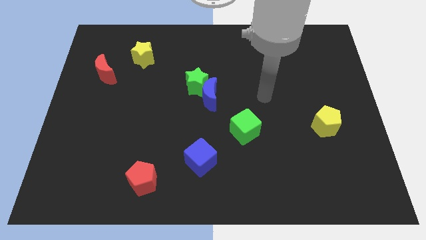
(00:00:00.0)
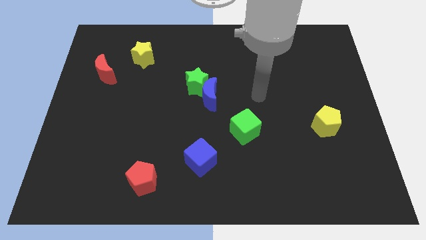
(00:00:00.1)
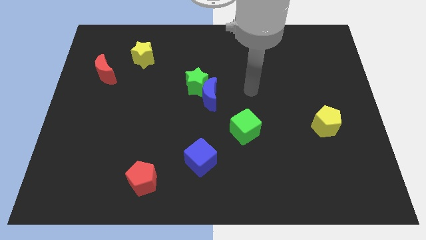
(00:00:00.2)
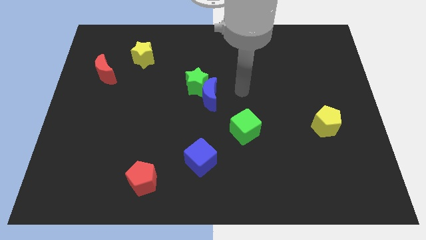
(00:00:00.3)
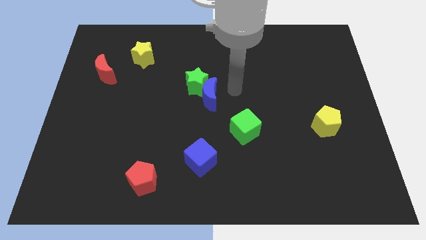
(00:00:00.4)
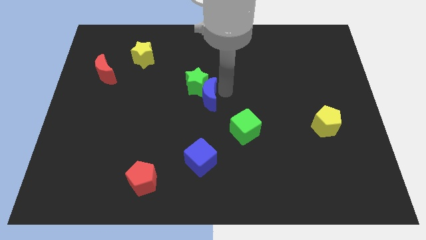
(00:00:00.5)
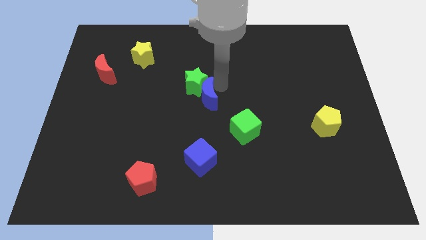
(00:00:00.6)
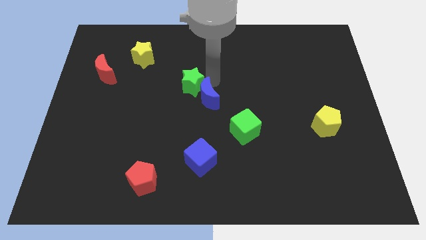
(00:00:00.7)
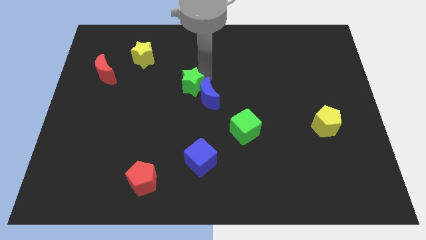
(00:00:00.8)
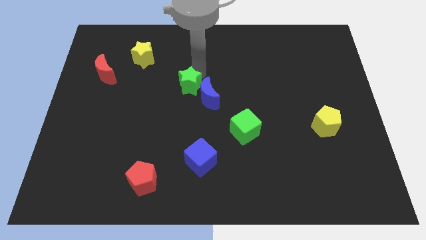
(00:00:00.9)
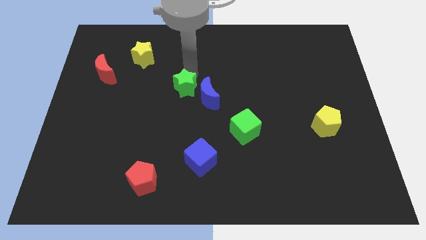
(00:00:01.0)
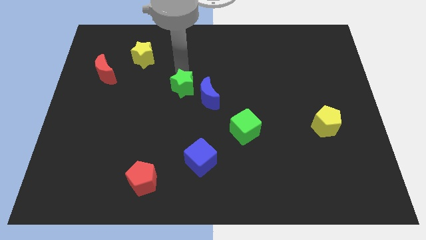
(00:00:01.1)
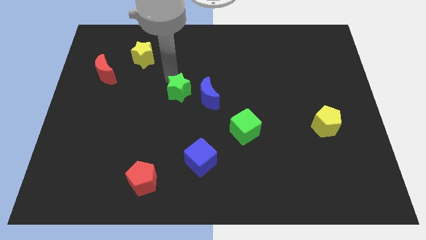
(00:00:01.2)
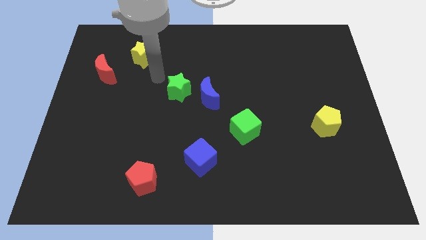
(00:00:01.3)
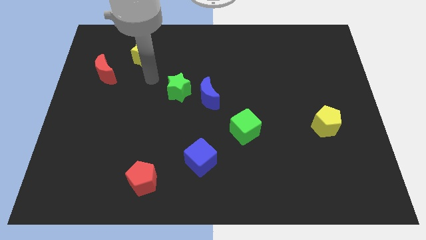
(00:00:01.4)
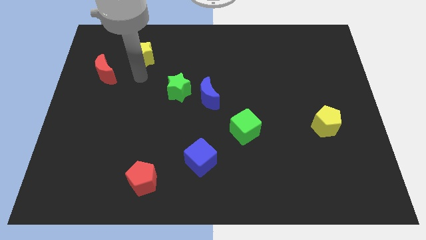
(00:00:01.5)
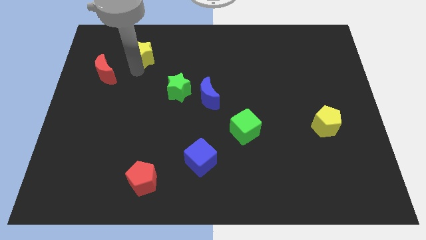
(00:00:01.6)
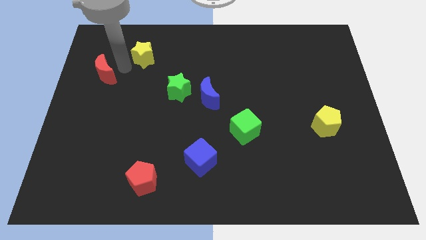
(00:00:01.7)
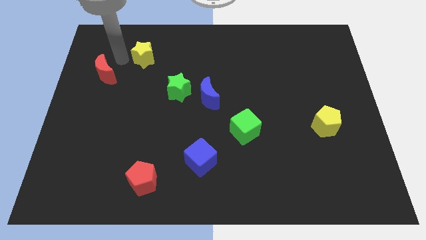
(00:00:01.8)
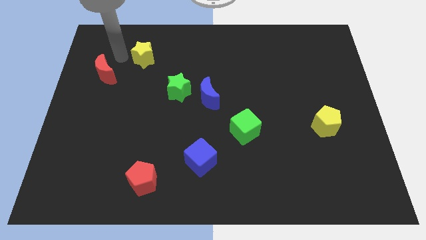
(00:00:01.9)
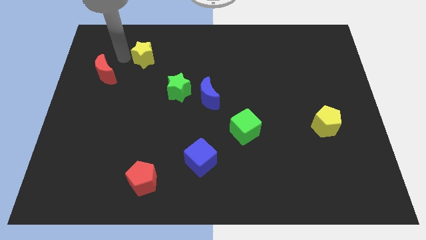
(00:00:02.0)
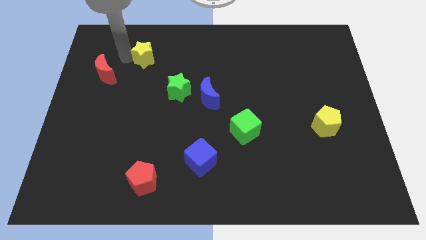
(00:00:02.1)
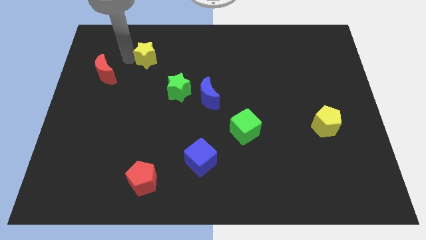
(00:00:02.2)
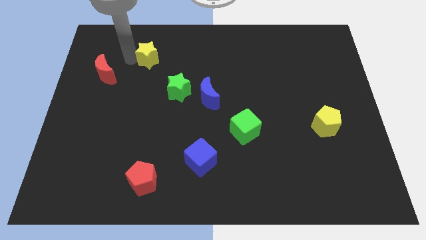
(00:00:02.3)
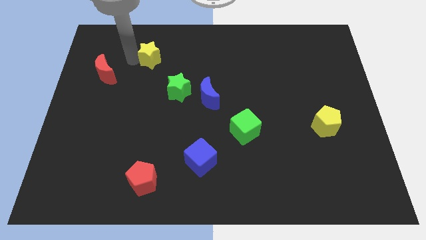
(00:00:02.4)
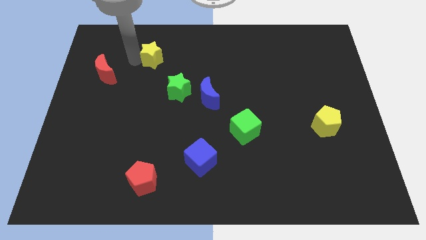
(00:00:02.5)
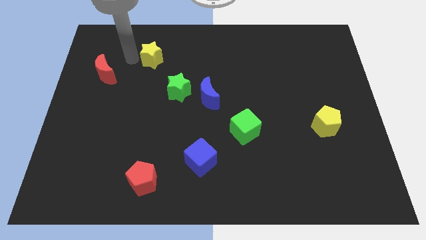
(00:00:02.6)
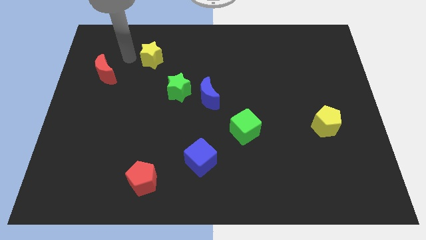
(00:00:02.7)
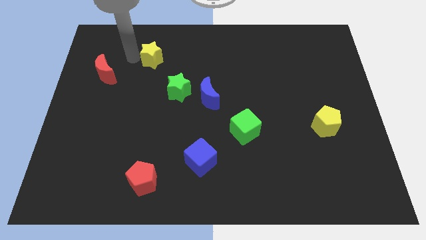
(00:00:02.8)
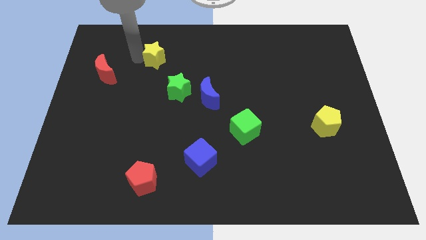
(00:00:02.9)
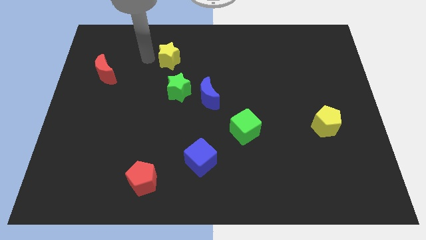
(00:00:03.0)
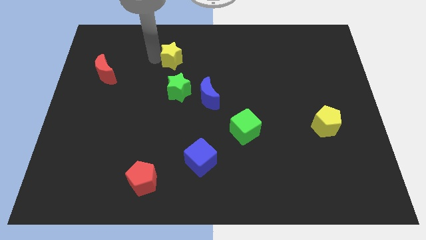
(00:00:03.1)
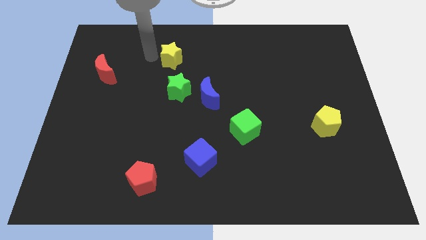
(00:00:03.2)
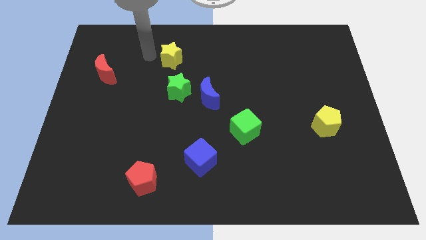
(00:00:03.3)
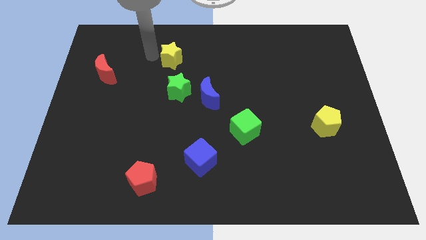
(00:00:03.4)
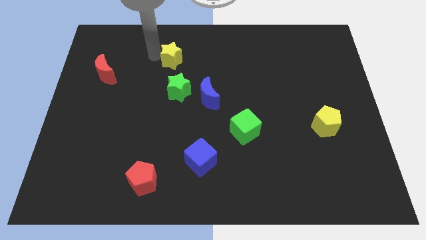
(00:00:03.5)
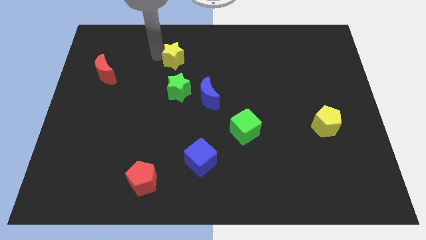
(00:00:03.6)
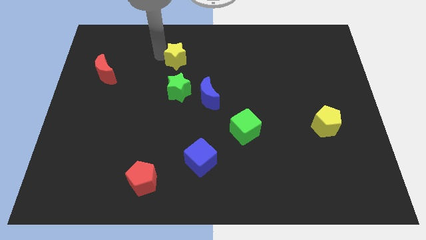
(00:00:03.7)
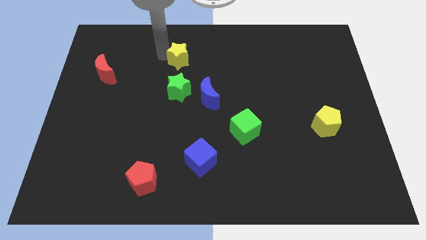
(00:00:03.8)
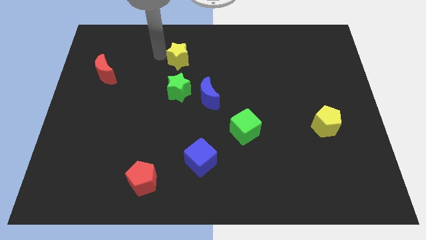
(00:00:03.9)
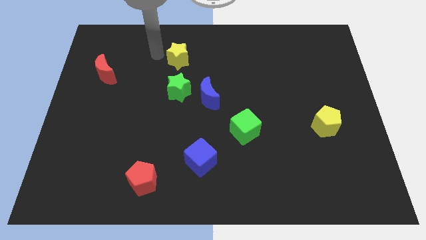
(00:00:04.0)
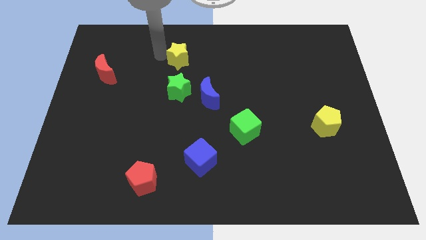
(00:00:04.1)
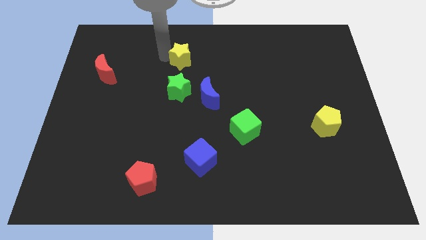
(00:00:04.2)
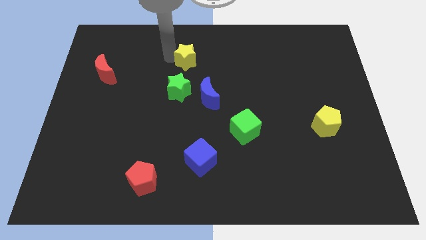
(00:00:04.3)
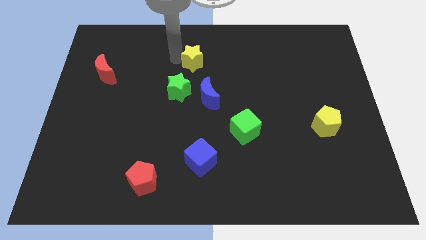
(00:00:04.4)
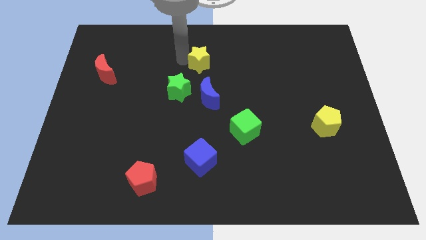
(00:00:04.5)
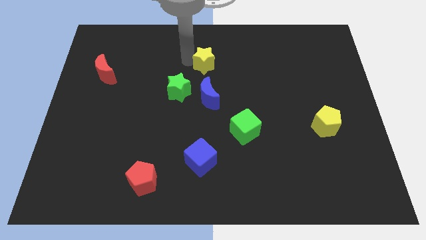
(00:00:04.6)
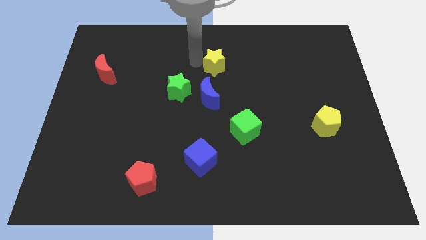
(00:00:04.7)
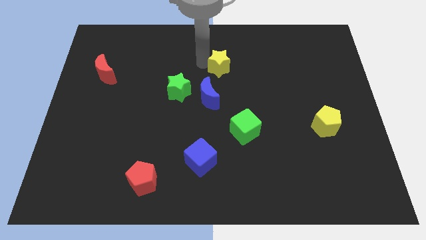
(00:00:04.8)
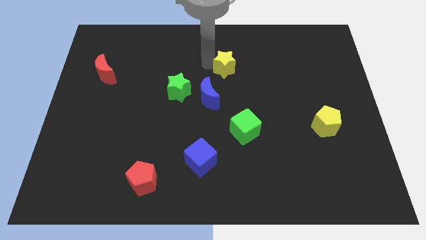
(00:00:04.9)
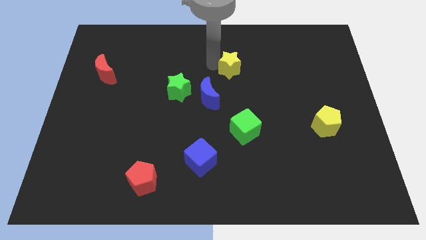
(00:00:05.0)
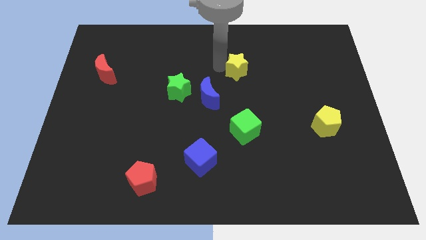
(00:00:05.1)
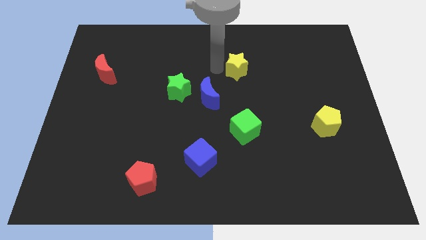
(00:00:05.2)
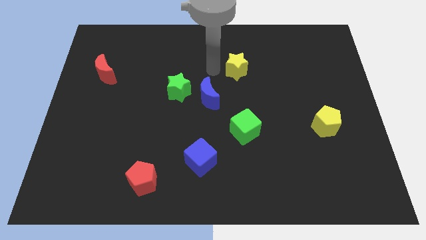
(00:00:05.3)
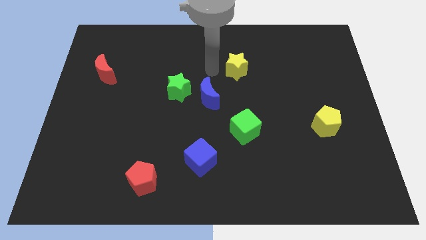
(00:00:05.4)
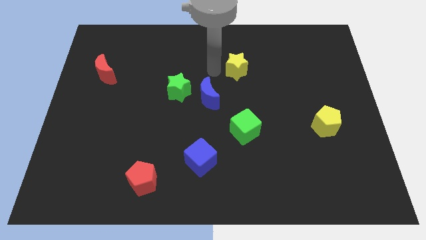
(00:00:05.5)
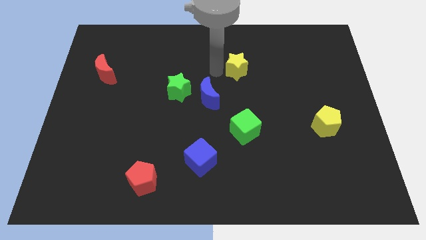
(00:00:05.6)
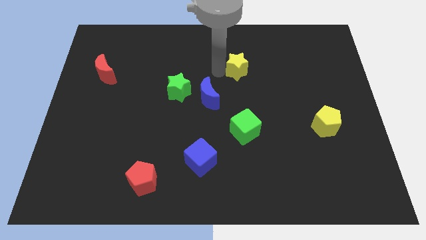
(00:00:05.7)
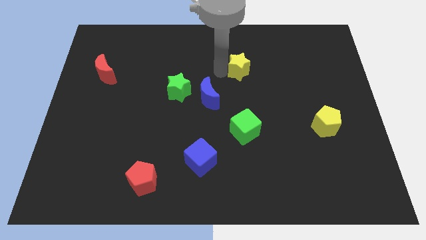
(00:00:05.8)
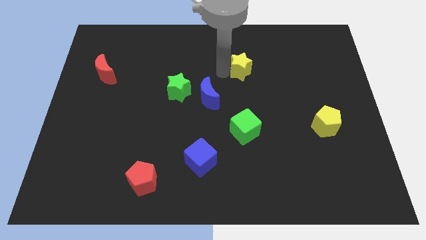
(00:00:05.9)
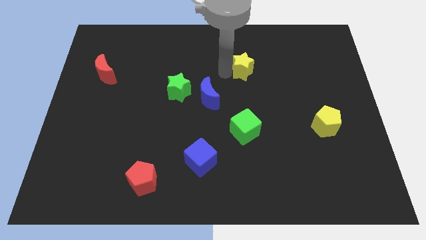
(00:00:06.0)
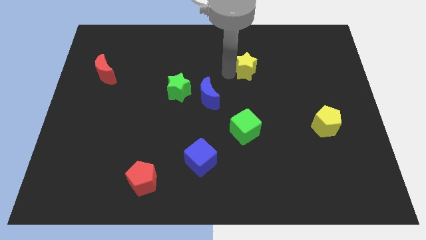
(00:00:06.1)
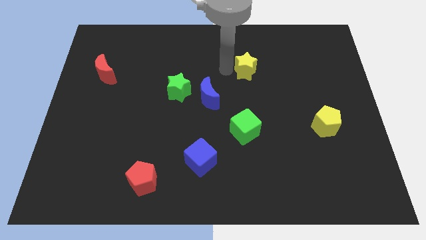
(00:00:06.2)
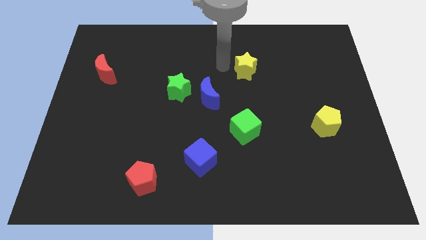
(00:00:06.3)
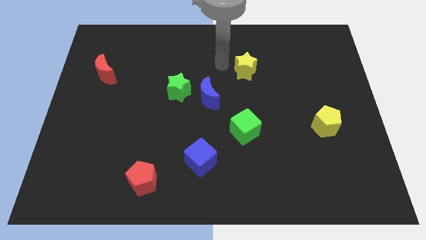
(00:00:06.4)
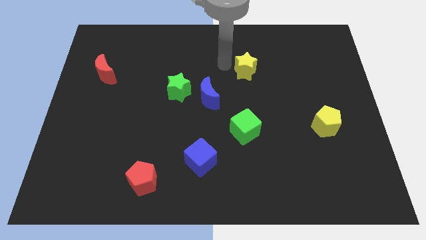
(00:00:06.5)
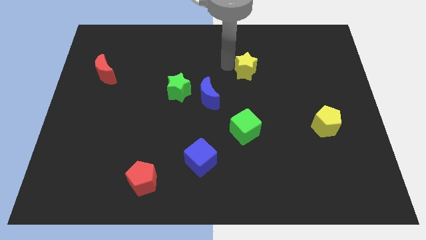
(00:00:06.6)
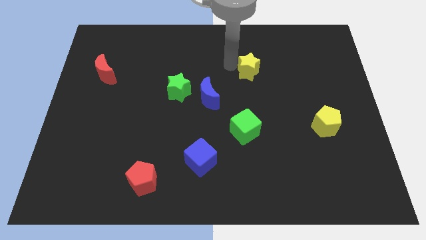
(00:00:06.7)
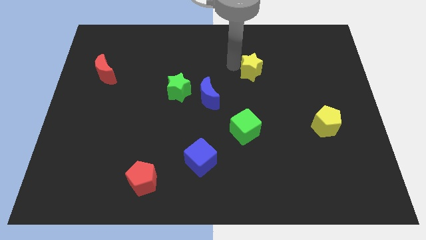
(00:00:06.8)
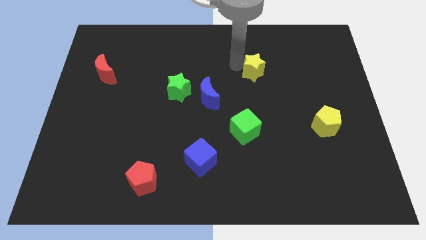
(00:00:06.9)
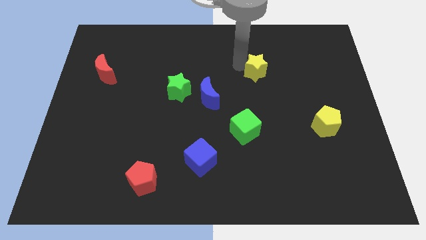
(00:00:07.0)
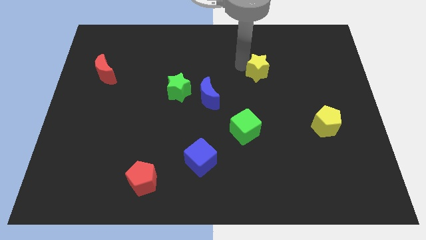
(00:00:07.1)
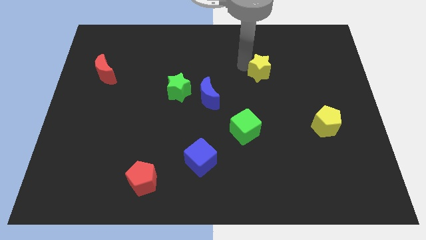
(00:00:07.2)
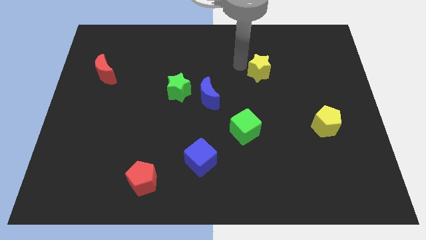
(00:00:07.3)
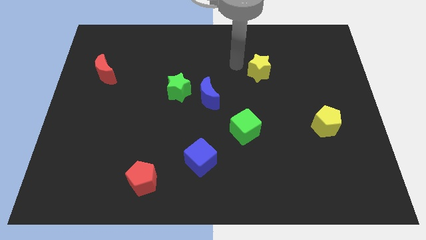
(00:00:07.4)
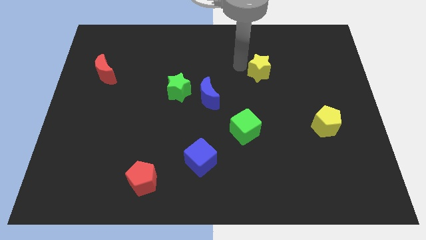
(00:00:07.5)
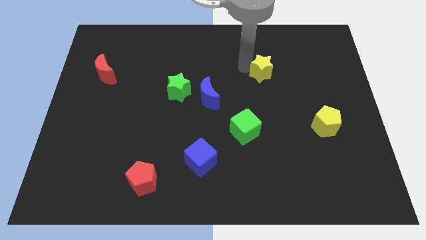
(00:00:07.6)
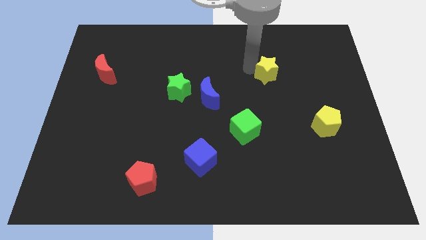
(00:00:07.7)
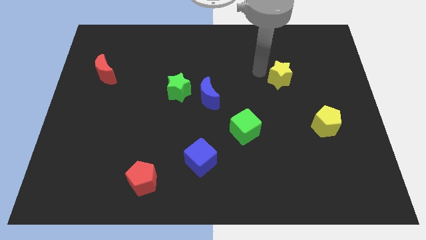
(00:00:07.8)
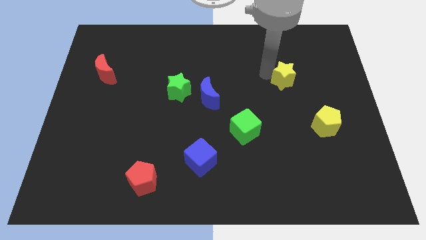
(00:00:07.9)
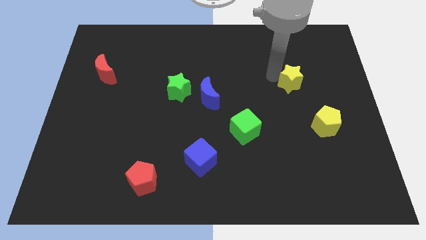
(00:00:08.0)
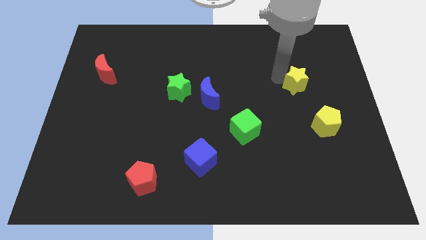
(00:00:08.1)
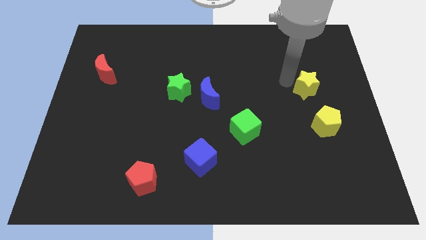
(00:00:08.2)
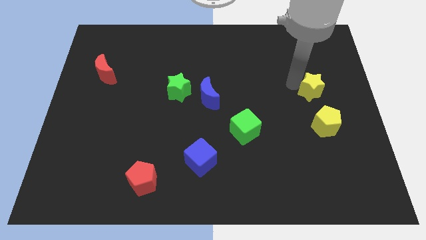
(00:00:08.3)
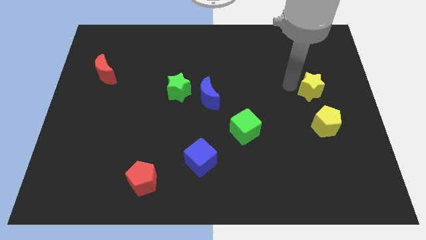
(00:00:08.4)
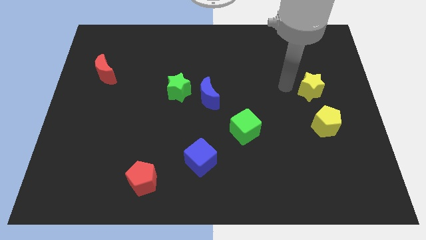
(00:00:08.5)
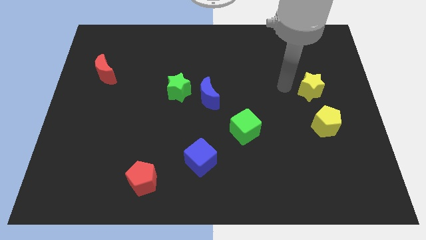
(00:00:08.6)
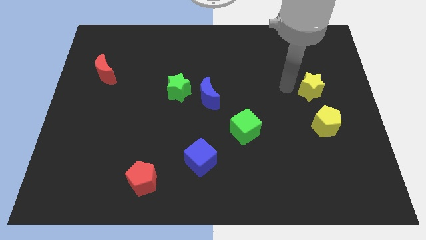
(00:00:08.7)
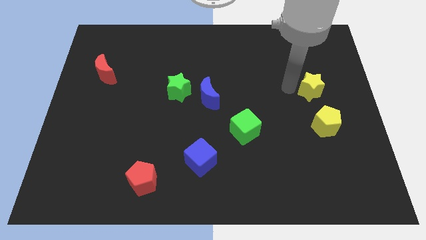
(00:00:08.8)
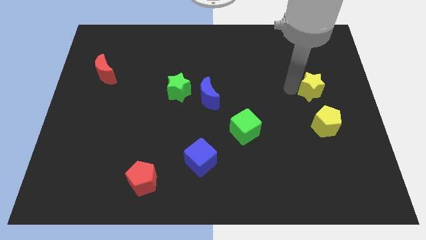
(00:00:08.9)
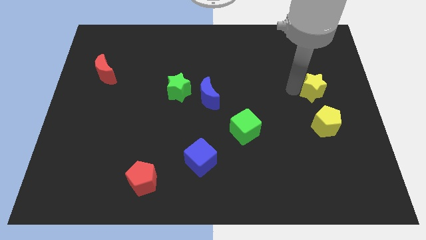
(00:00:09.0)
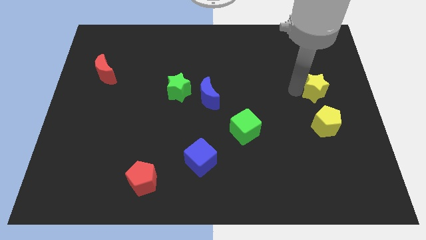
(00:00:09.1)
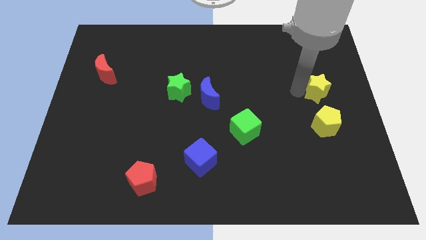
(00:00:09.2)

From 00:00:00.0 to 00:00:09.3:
push the yellow star to the center right
